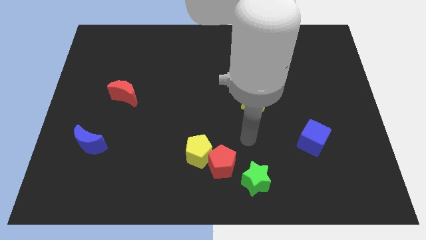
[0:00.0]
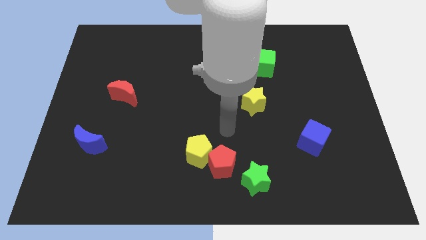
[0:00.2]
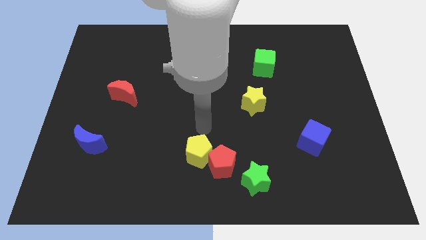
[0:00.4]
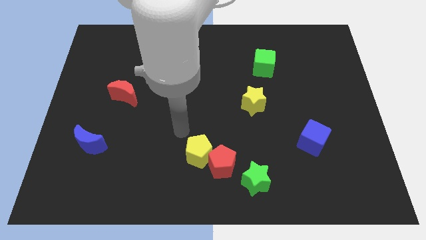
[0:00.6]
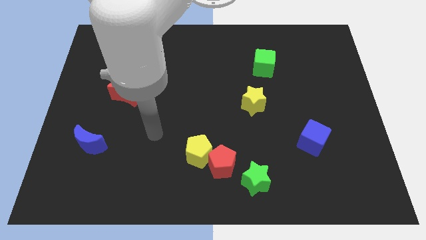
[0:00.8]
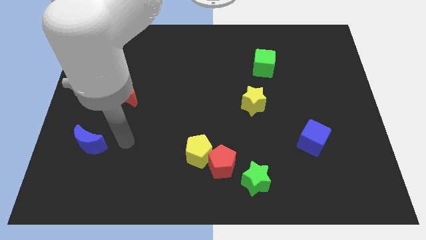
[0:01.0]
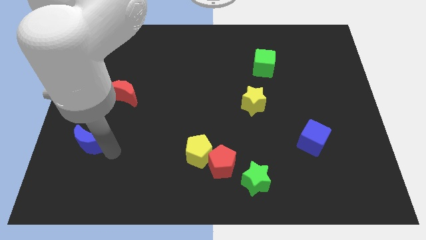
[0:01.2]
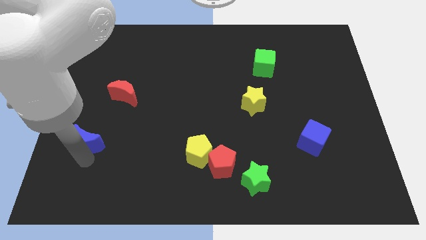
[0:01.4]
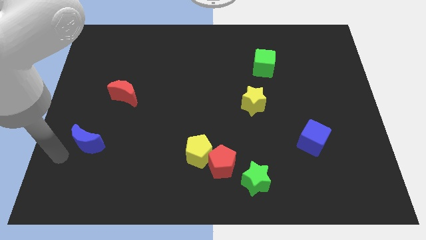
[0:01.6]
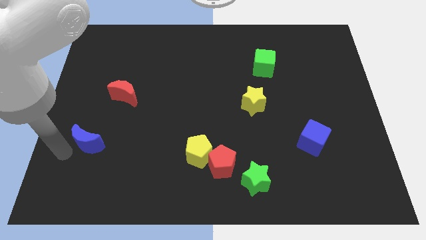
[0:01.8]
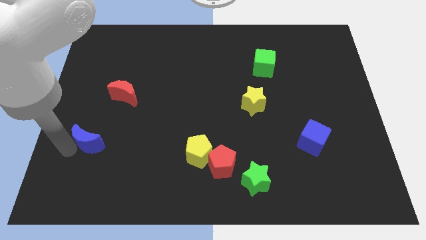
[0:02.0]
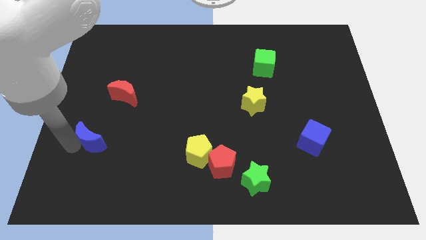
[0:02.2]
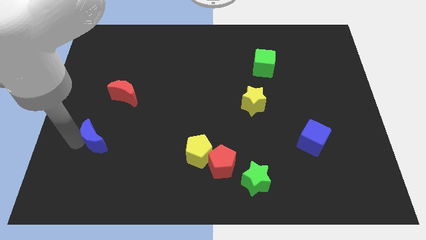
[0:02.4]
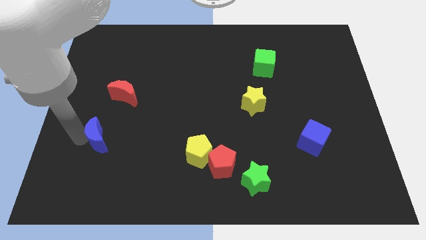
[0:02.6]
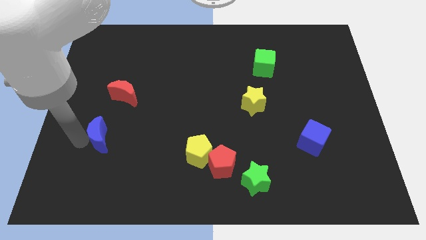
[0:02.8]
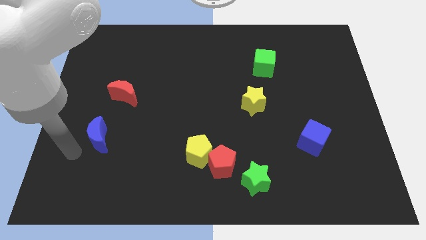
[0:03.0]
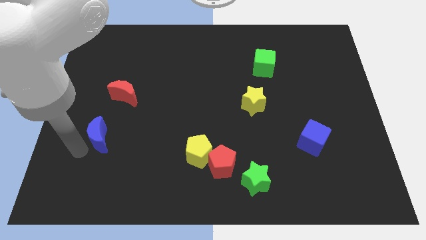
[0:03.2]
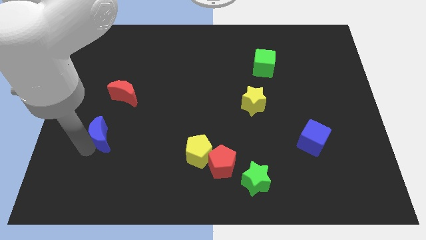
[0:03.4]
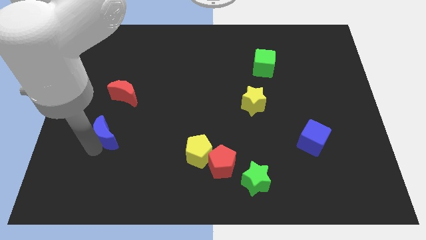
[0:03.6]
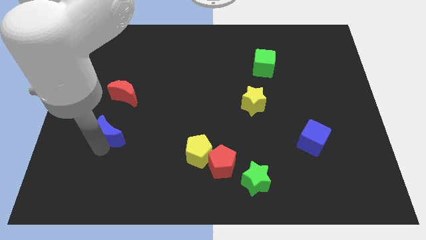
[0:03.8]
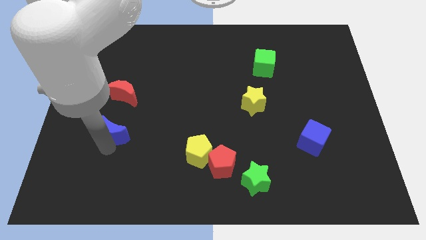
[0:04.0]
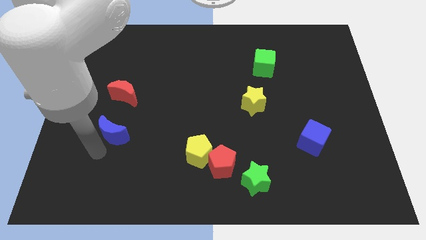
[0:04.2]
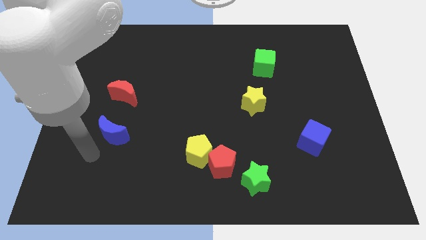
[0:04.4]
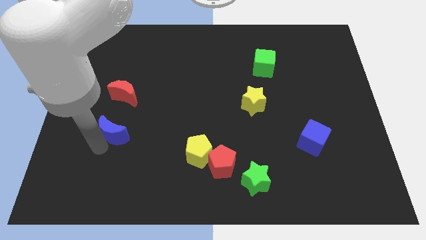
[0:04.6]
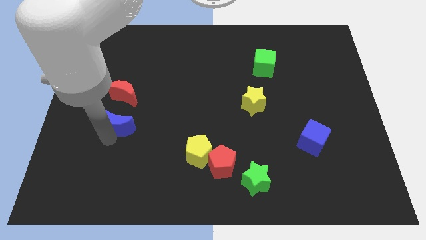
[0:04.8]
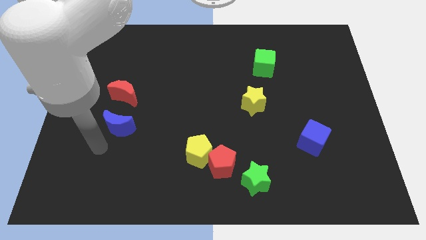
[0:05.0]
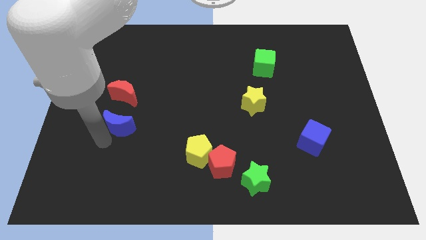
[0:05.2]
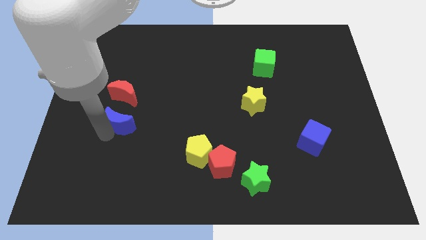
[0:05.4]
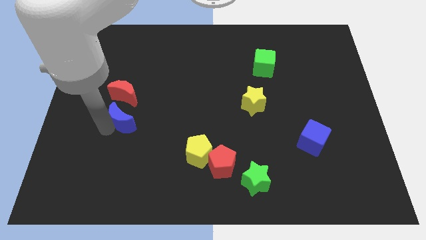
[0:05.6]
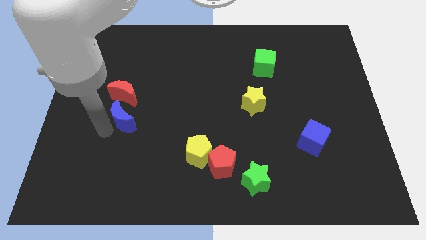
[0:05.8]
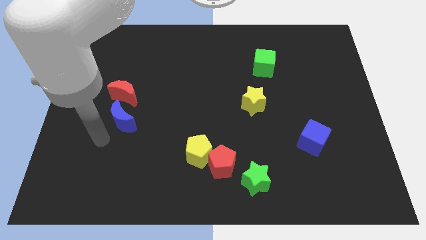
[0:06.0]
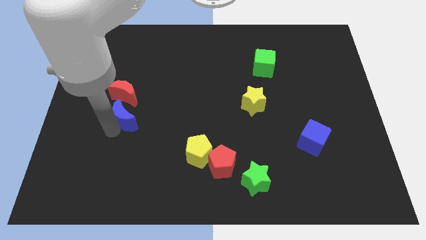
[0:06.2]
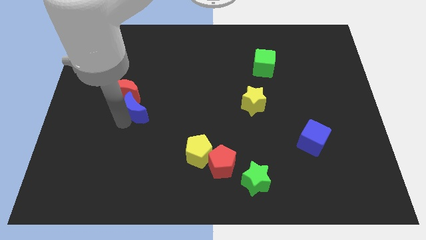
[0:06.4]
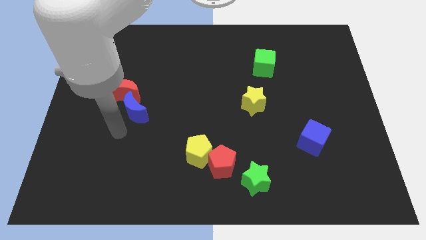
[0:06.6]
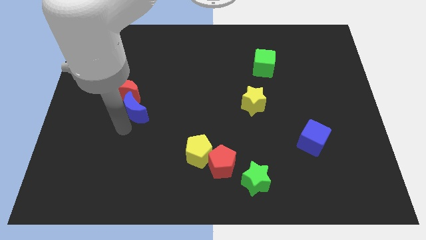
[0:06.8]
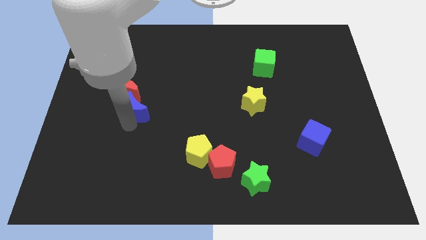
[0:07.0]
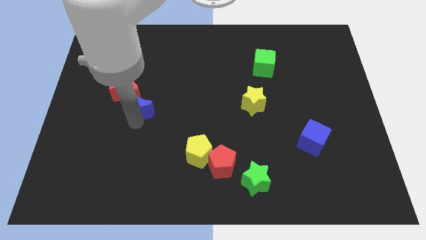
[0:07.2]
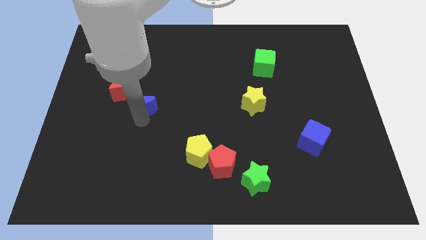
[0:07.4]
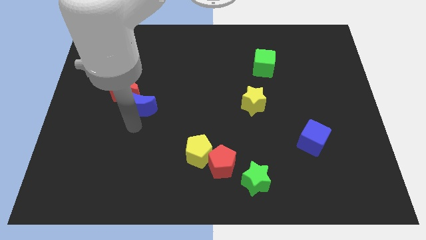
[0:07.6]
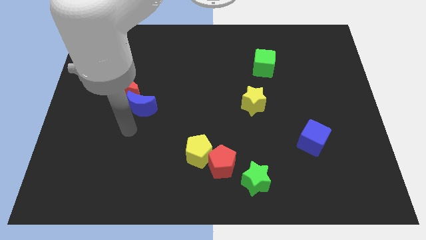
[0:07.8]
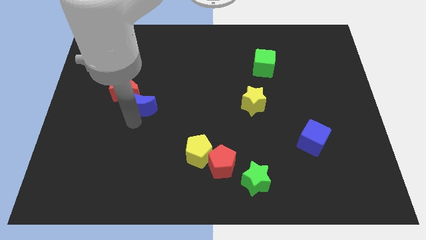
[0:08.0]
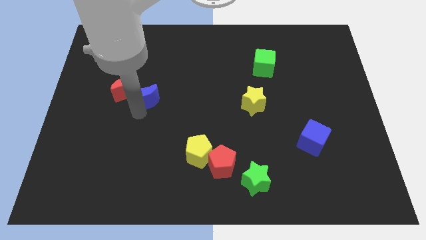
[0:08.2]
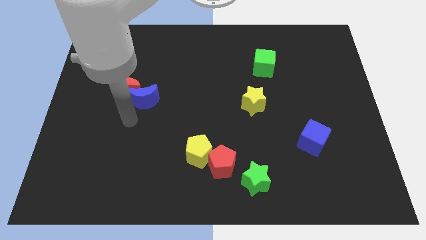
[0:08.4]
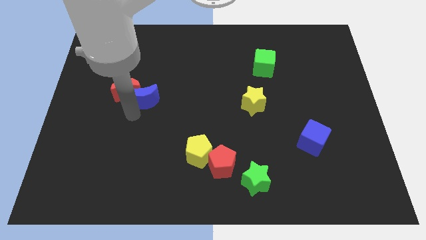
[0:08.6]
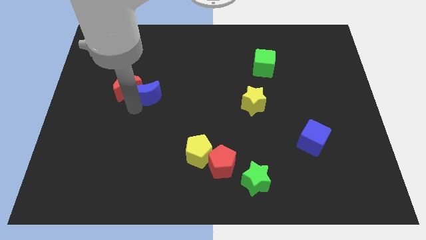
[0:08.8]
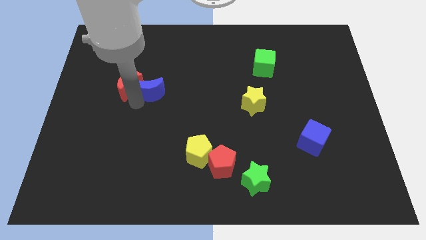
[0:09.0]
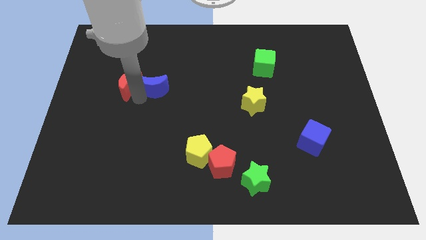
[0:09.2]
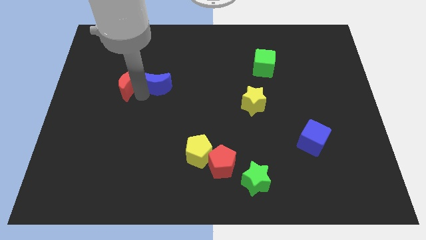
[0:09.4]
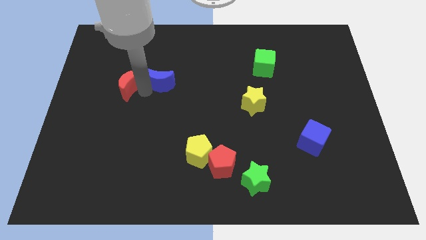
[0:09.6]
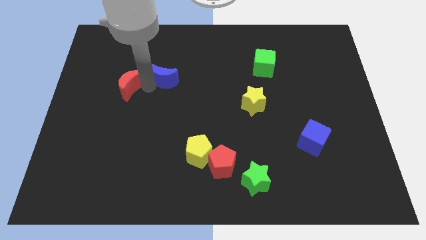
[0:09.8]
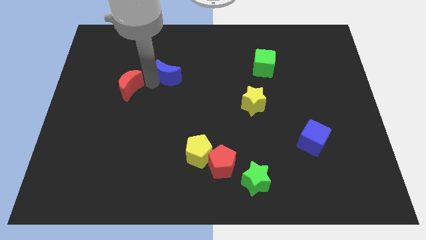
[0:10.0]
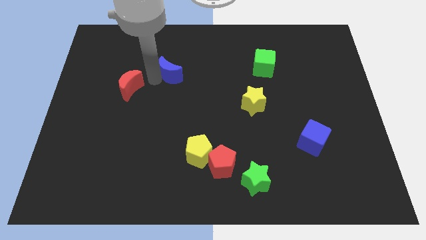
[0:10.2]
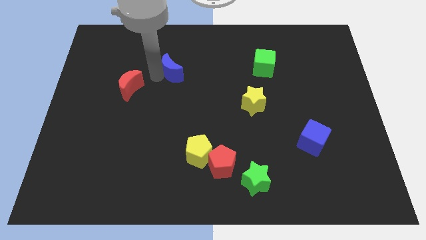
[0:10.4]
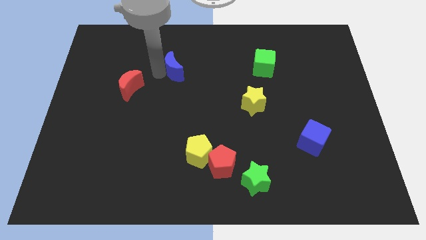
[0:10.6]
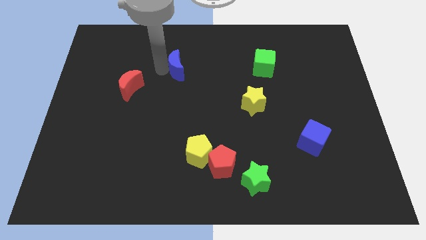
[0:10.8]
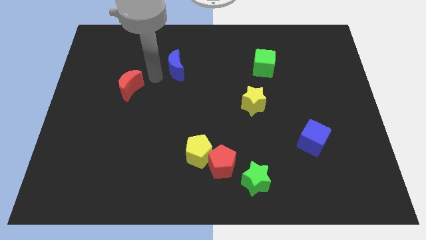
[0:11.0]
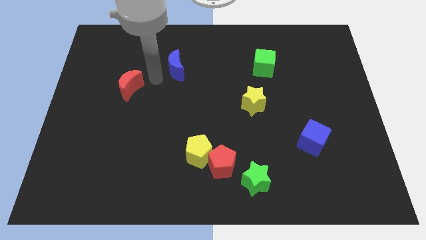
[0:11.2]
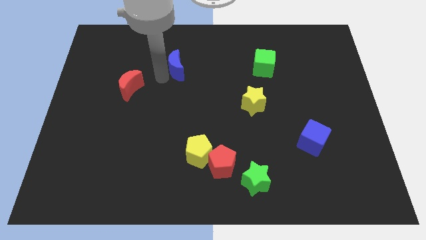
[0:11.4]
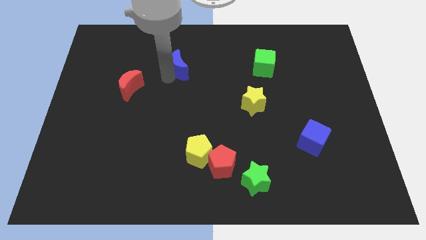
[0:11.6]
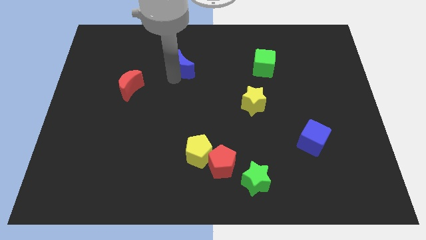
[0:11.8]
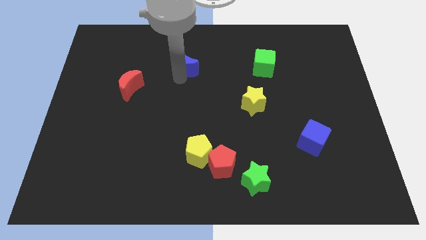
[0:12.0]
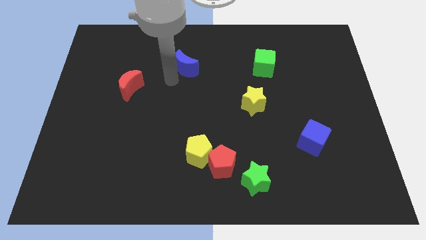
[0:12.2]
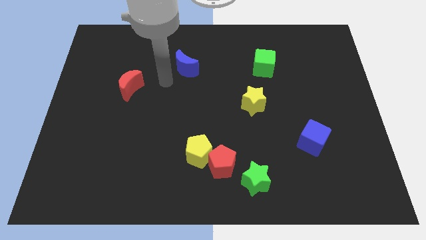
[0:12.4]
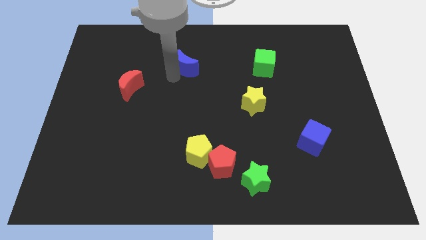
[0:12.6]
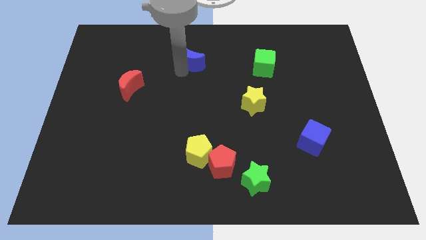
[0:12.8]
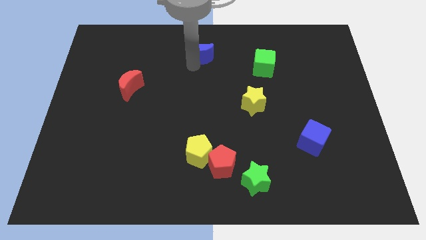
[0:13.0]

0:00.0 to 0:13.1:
put the blue moon to the top side
